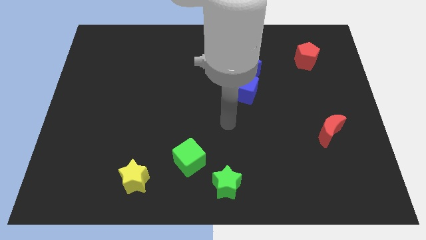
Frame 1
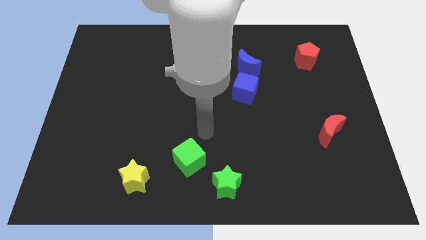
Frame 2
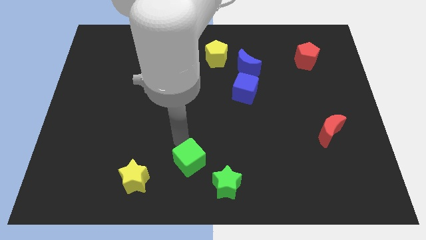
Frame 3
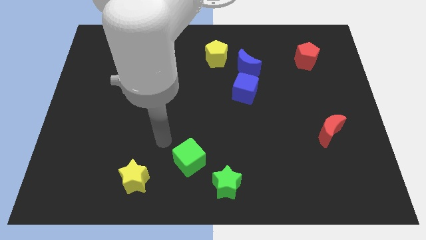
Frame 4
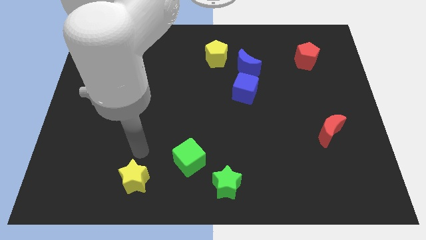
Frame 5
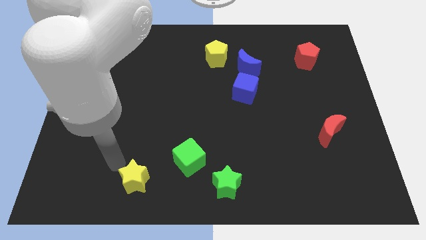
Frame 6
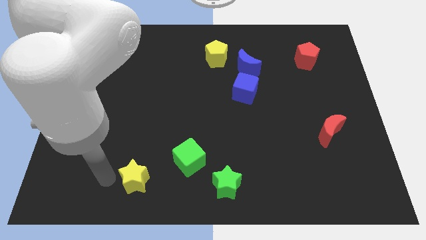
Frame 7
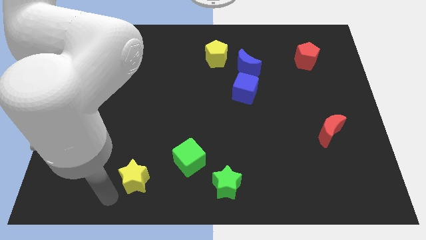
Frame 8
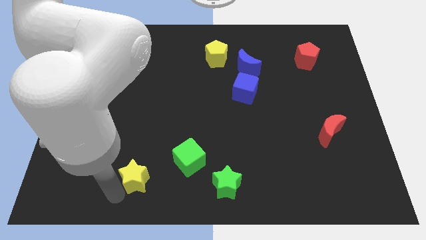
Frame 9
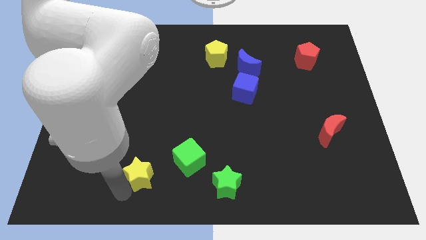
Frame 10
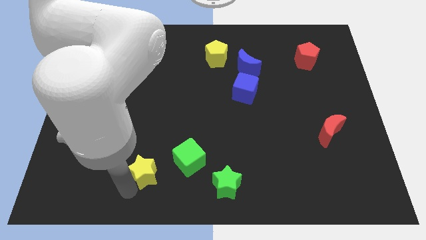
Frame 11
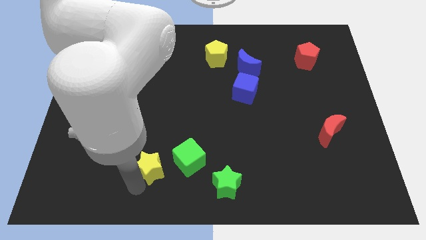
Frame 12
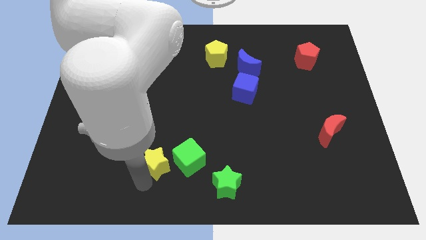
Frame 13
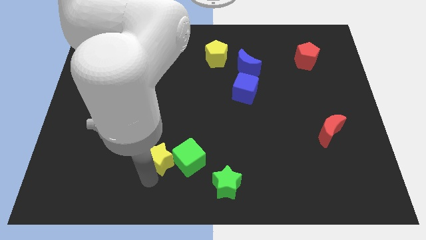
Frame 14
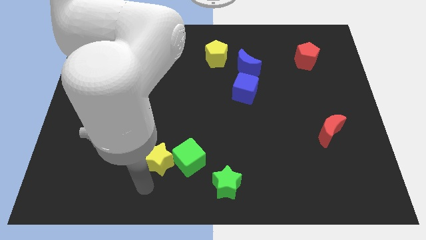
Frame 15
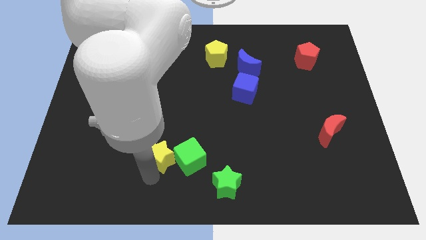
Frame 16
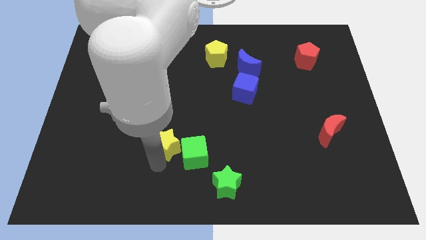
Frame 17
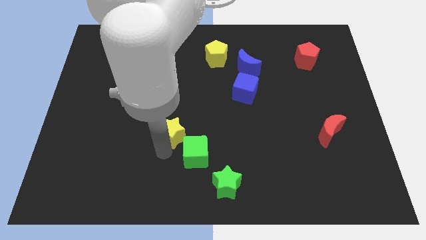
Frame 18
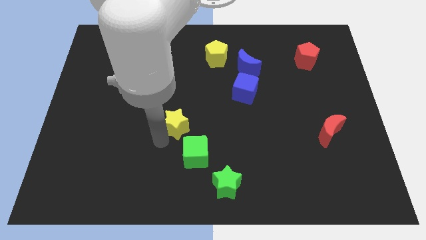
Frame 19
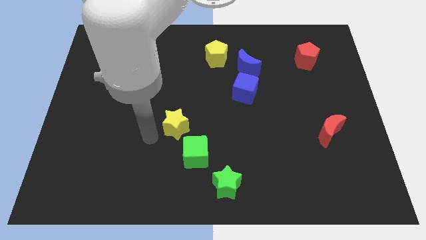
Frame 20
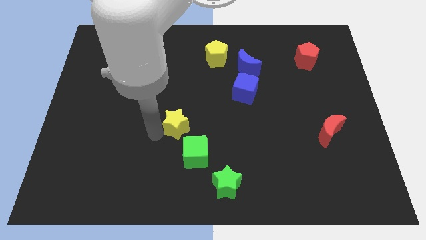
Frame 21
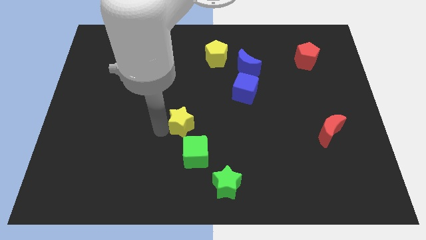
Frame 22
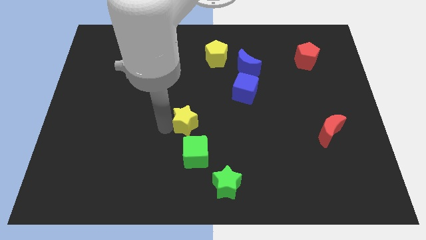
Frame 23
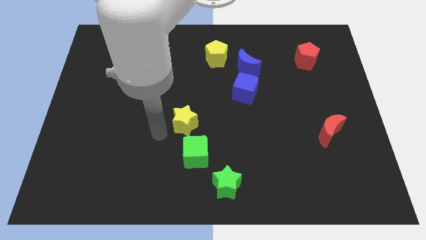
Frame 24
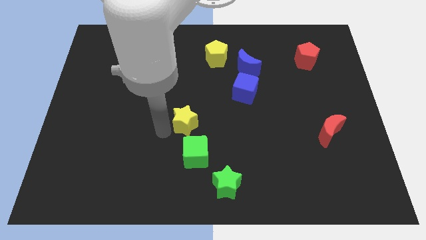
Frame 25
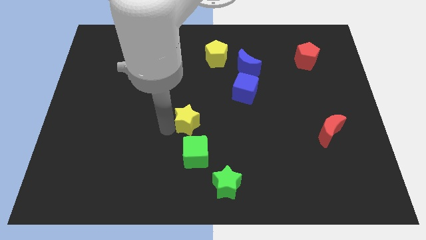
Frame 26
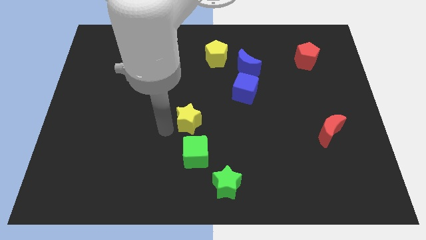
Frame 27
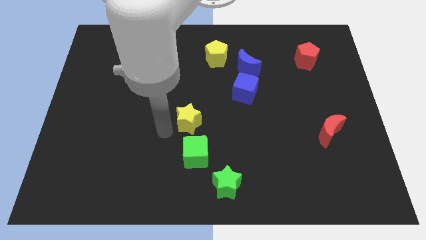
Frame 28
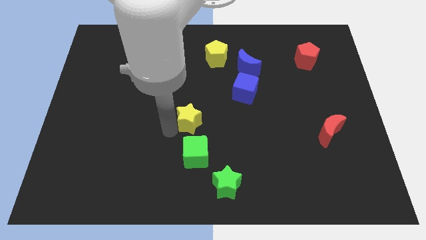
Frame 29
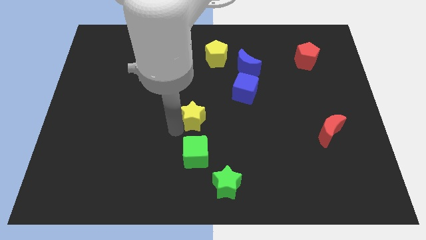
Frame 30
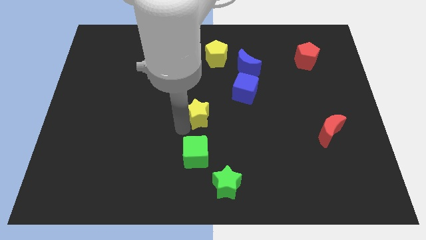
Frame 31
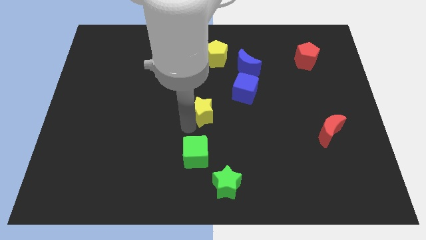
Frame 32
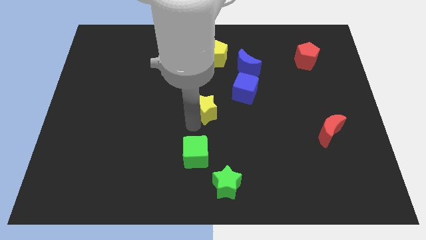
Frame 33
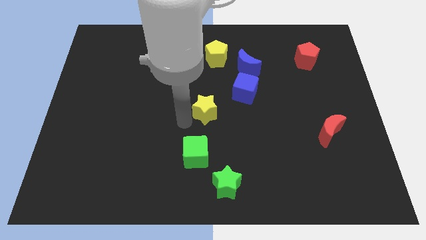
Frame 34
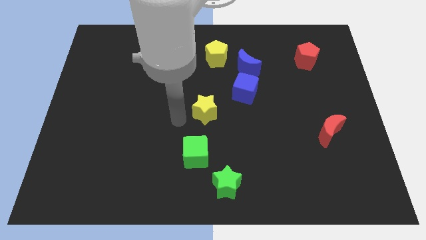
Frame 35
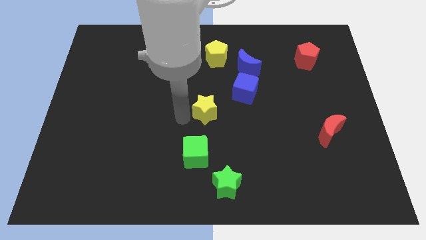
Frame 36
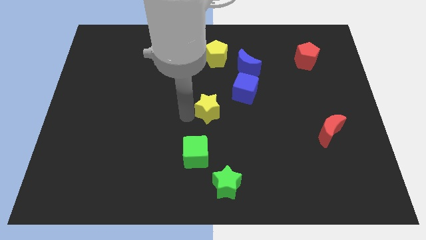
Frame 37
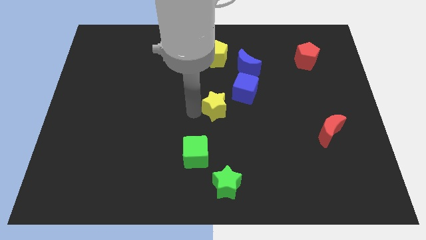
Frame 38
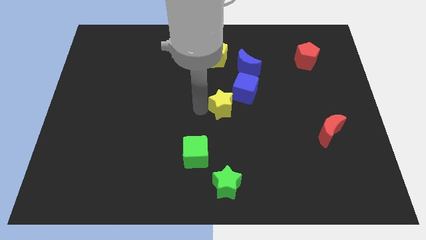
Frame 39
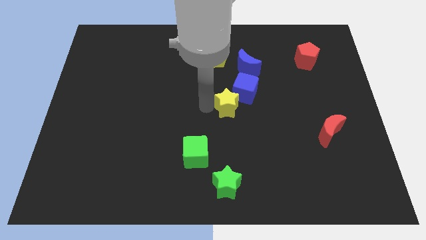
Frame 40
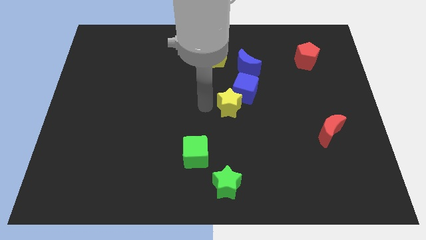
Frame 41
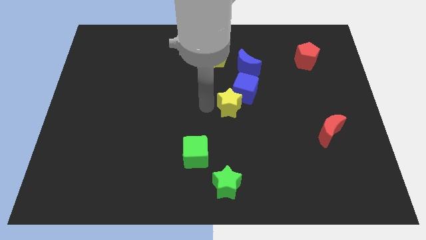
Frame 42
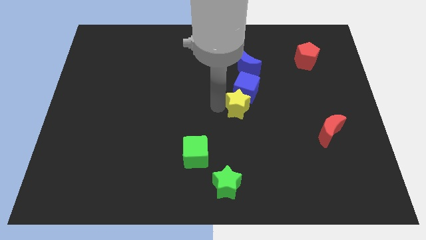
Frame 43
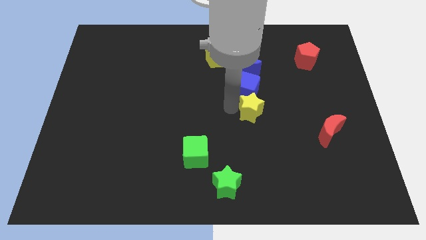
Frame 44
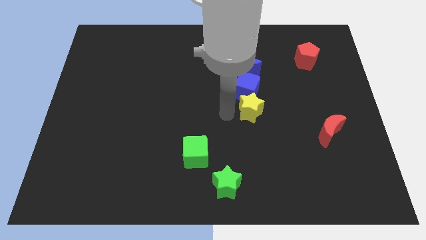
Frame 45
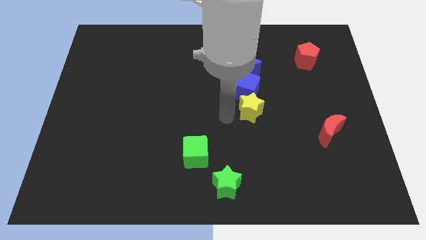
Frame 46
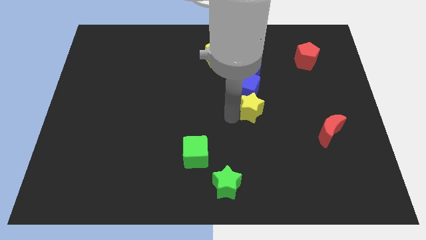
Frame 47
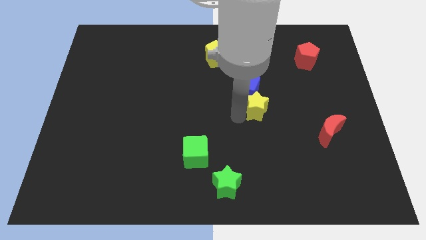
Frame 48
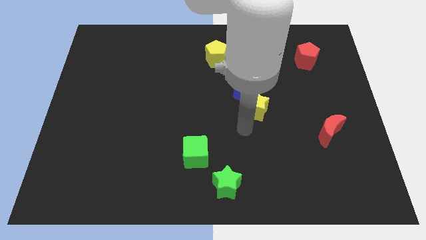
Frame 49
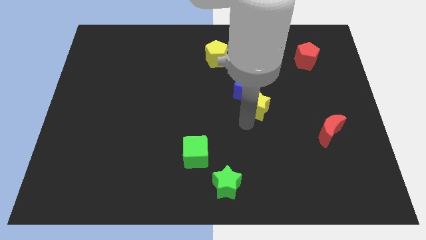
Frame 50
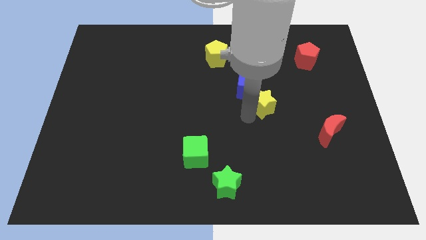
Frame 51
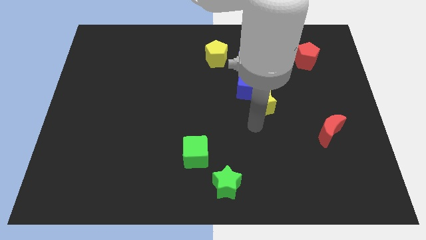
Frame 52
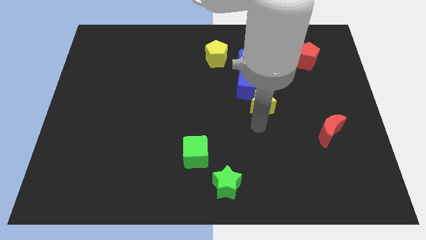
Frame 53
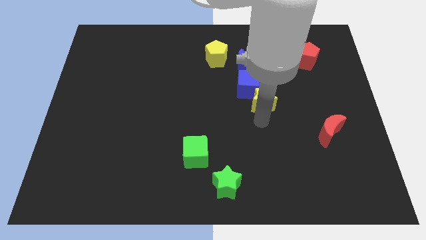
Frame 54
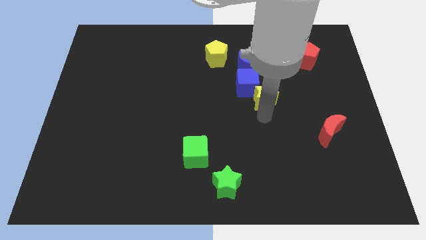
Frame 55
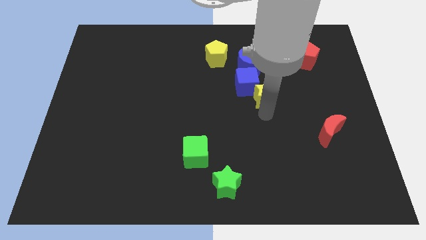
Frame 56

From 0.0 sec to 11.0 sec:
slide the yellow star to the bottom right of the blue moon

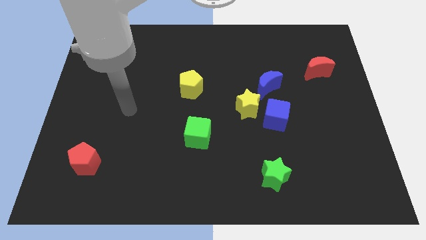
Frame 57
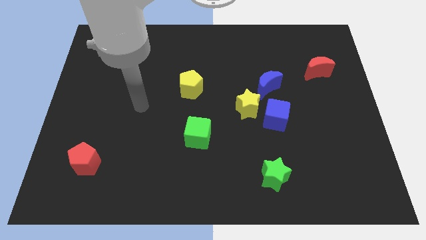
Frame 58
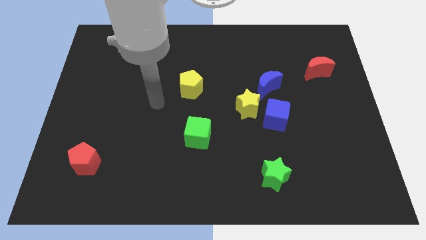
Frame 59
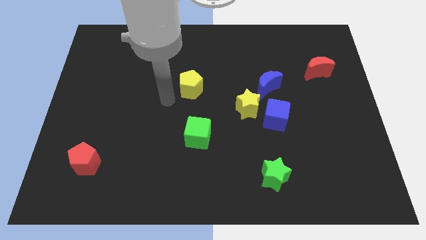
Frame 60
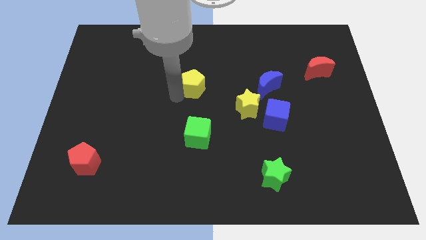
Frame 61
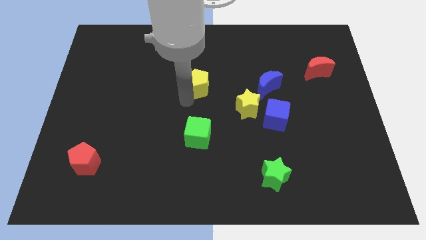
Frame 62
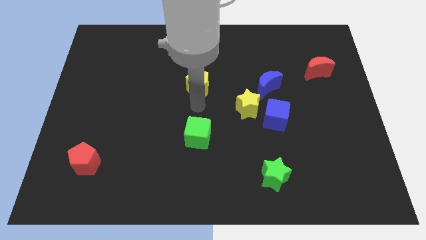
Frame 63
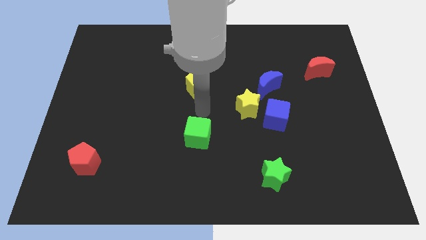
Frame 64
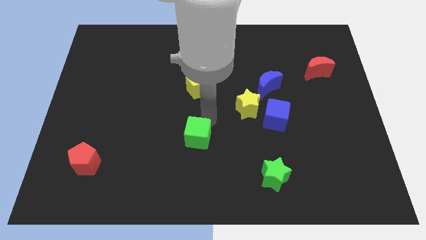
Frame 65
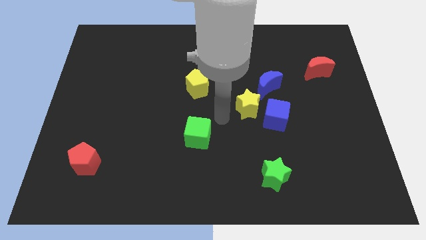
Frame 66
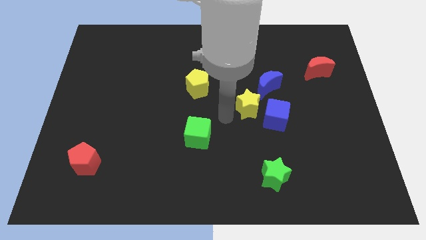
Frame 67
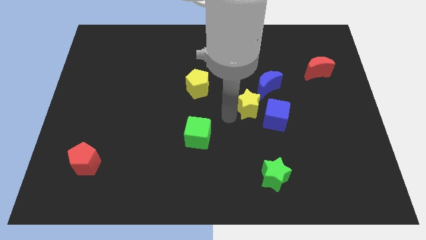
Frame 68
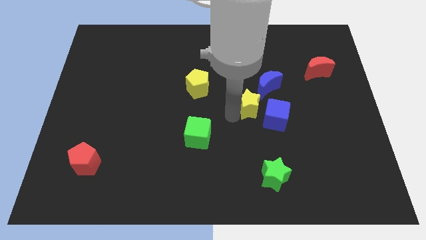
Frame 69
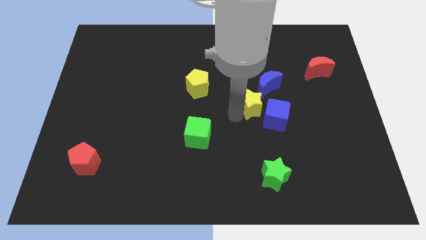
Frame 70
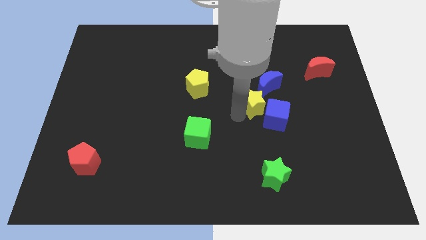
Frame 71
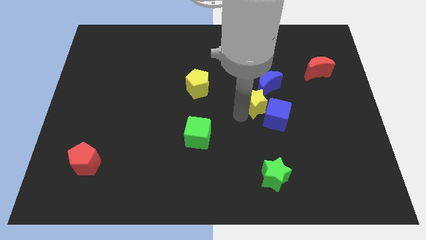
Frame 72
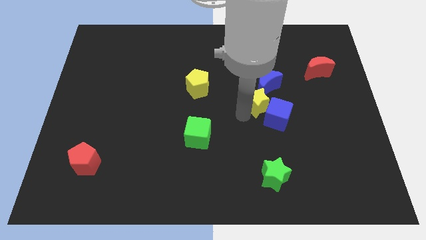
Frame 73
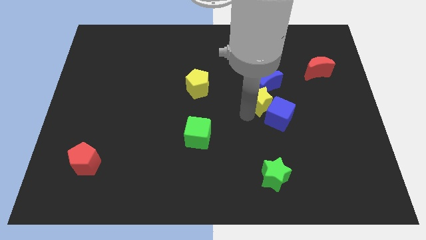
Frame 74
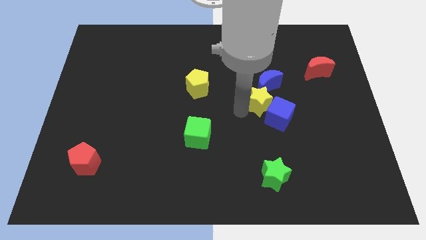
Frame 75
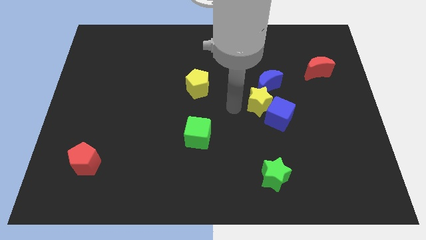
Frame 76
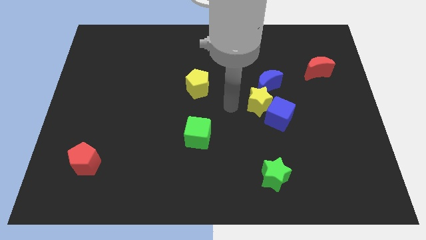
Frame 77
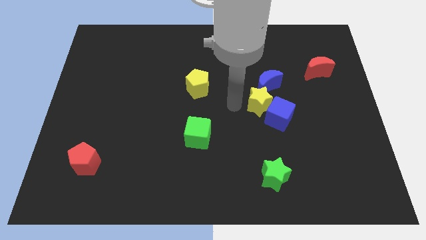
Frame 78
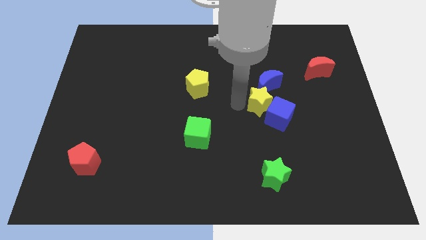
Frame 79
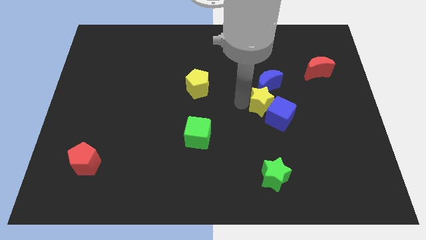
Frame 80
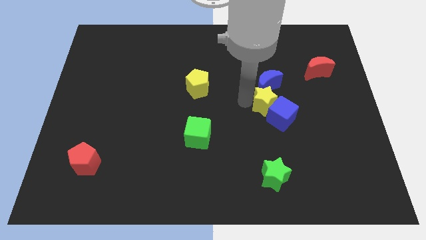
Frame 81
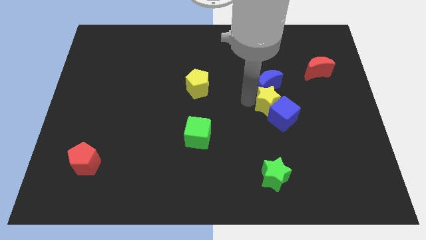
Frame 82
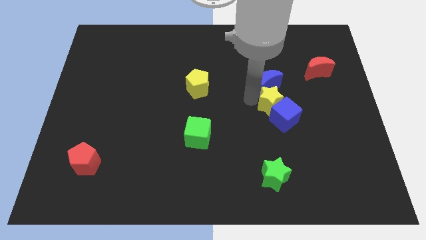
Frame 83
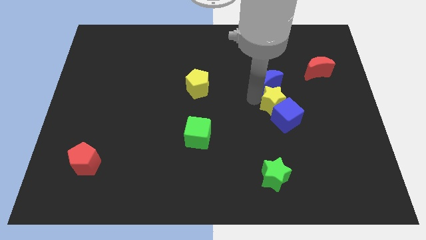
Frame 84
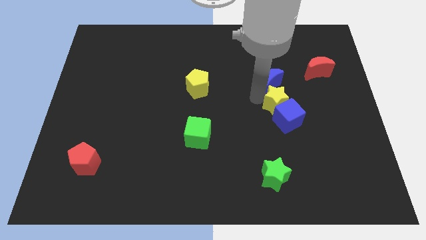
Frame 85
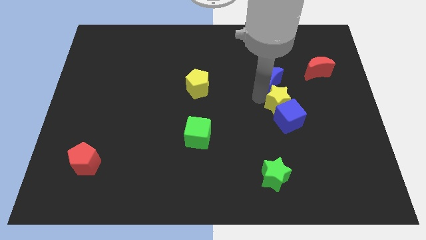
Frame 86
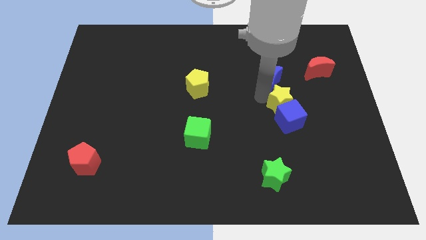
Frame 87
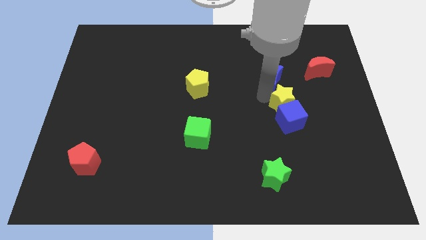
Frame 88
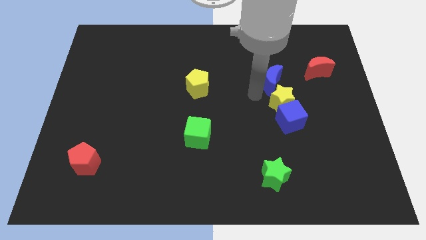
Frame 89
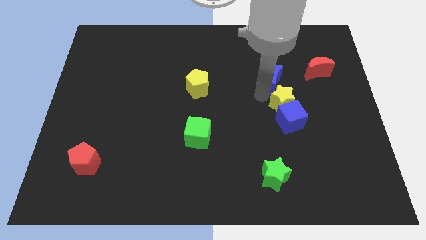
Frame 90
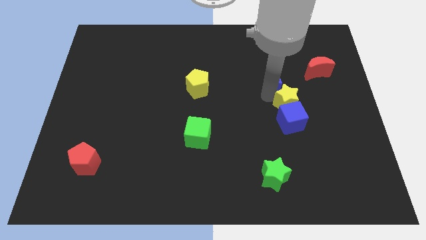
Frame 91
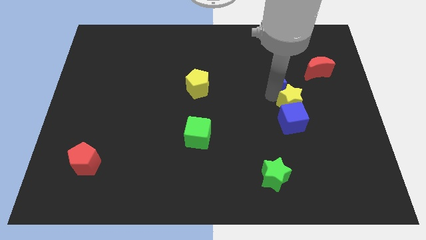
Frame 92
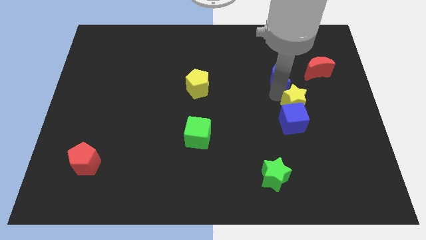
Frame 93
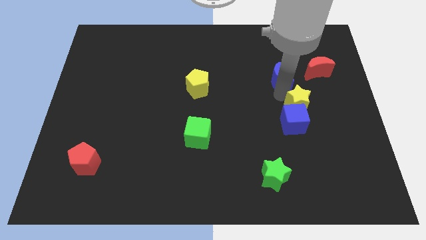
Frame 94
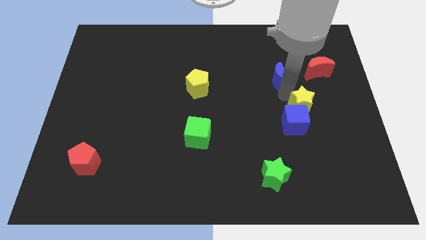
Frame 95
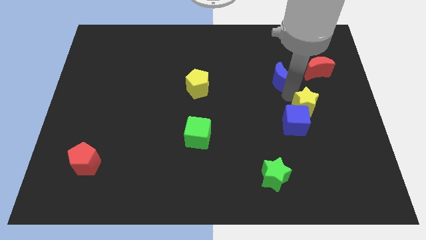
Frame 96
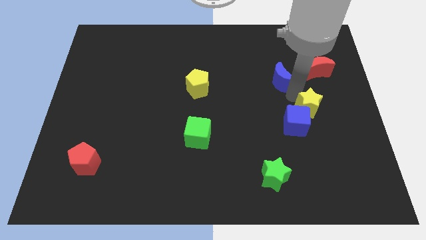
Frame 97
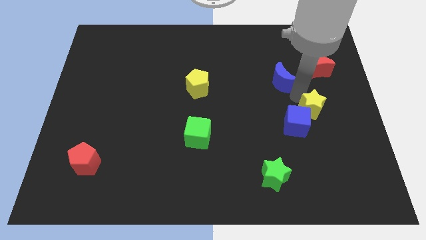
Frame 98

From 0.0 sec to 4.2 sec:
slide the yellow star to the right of the blue cube
